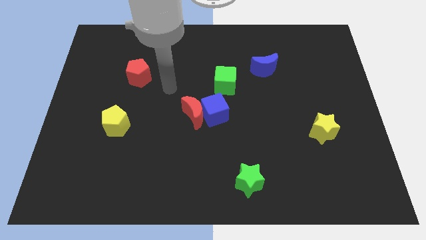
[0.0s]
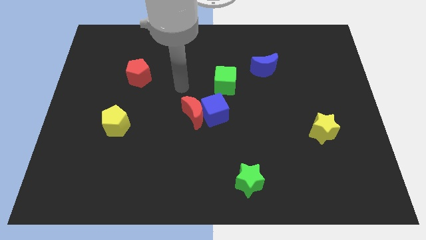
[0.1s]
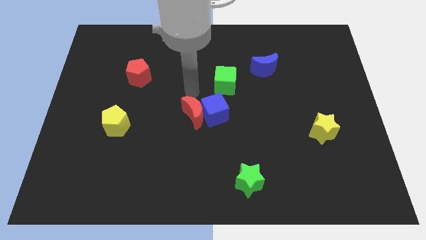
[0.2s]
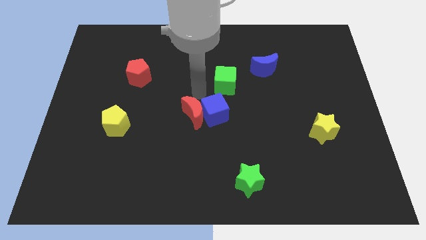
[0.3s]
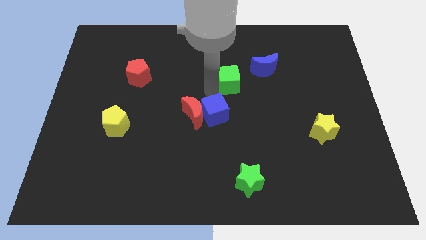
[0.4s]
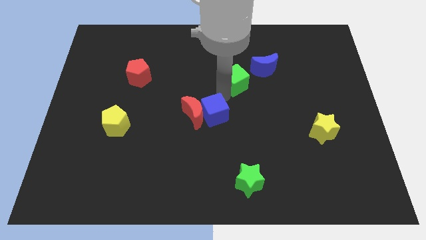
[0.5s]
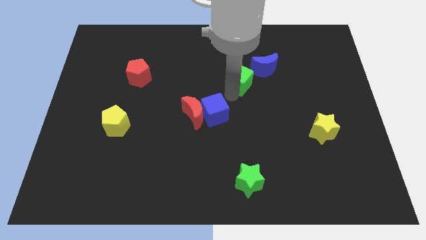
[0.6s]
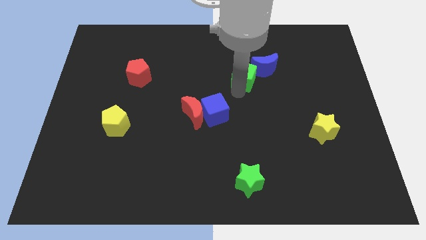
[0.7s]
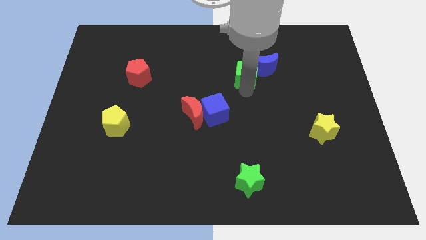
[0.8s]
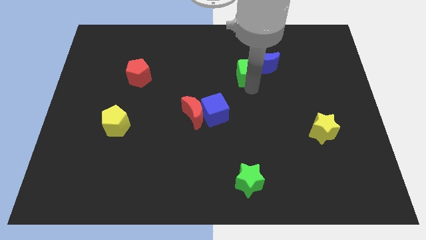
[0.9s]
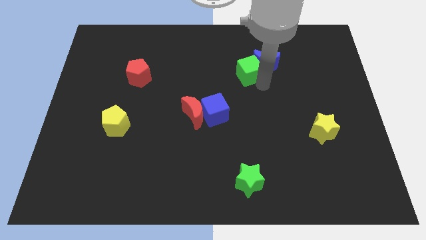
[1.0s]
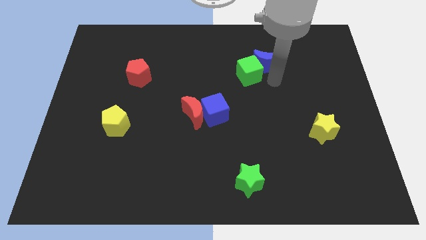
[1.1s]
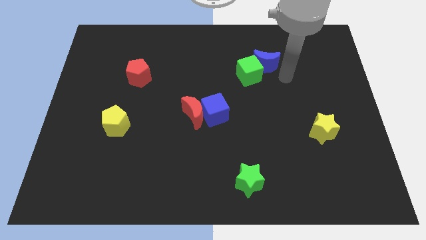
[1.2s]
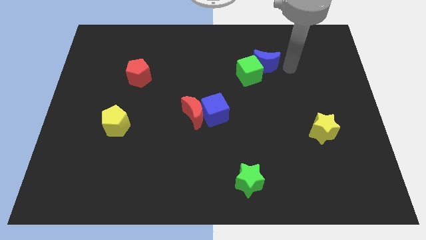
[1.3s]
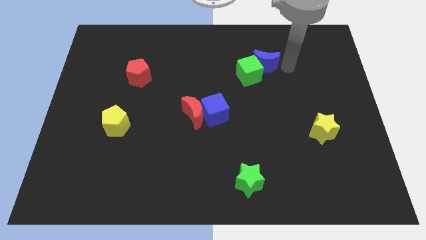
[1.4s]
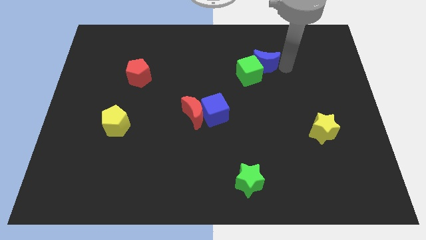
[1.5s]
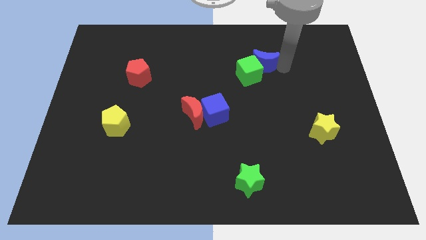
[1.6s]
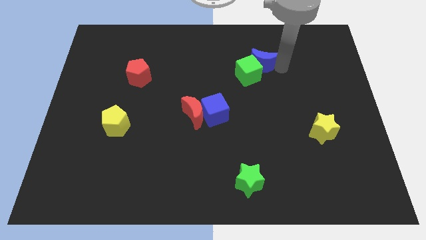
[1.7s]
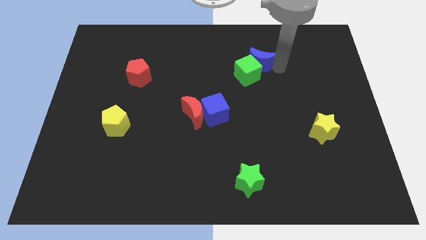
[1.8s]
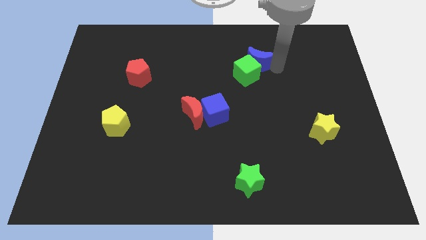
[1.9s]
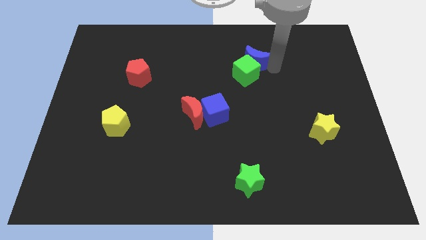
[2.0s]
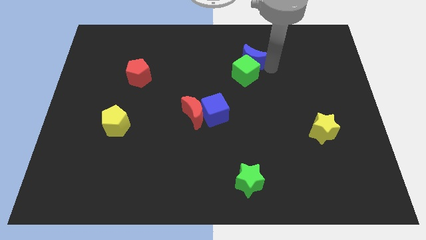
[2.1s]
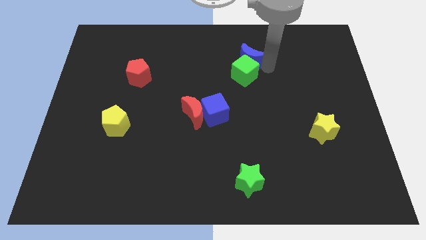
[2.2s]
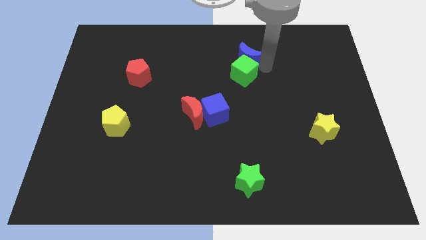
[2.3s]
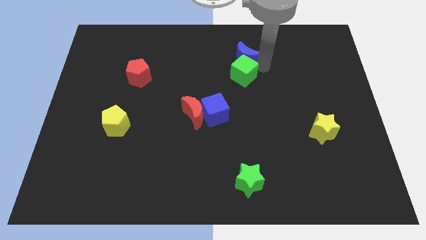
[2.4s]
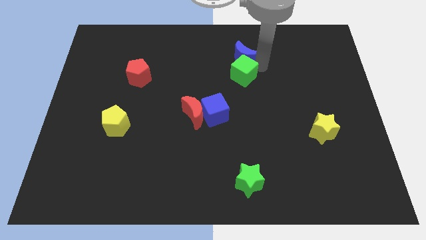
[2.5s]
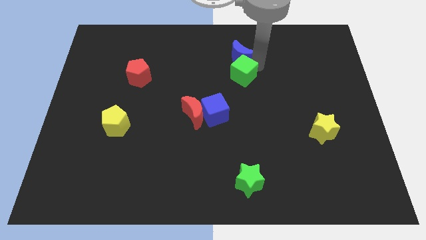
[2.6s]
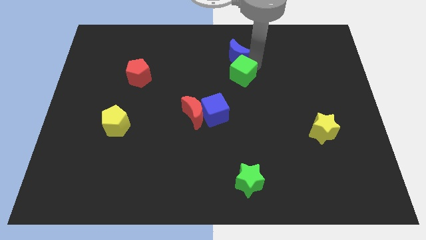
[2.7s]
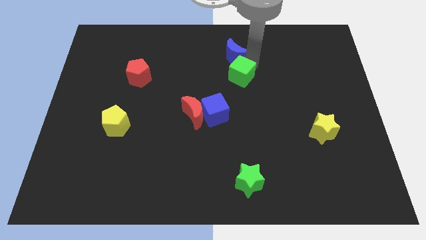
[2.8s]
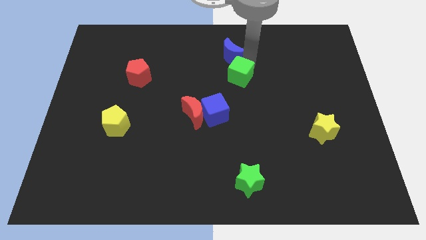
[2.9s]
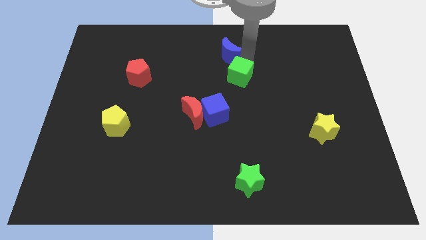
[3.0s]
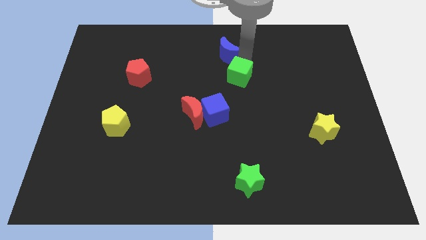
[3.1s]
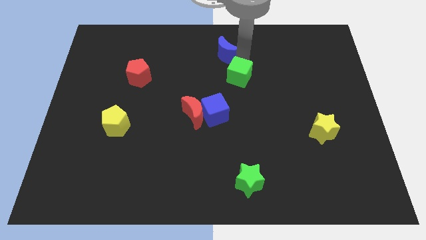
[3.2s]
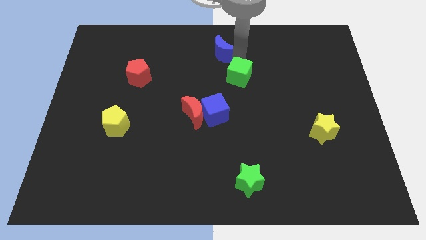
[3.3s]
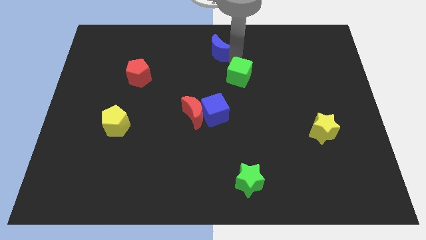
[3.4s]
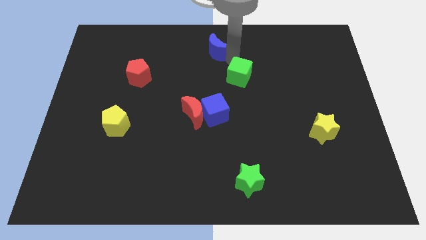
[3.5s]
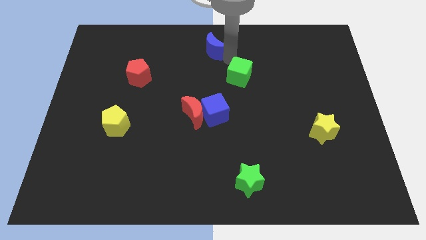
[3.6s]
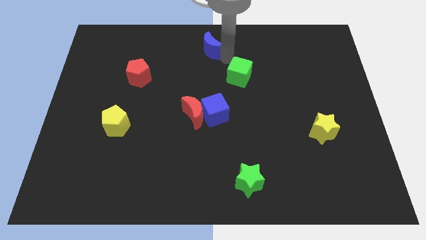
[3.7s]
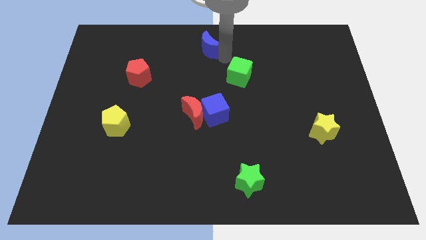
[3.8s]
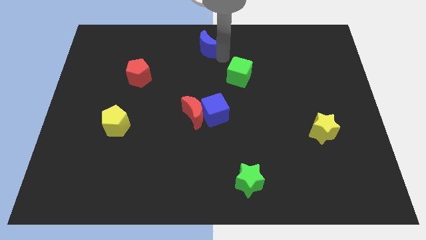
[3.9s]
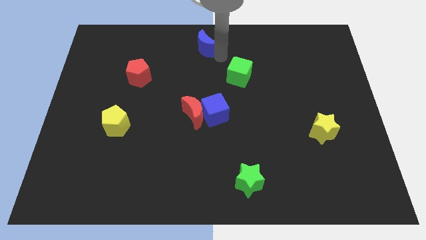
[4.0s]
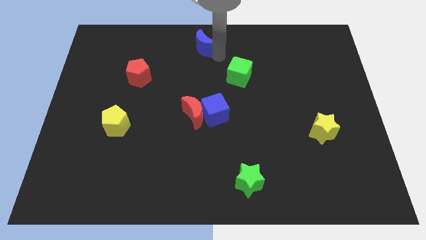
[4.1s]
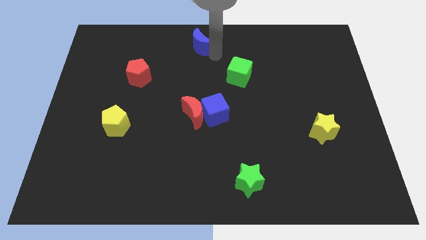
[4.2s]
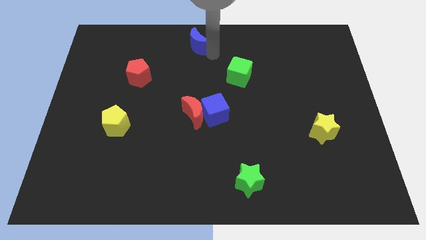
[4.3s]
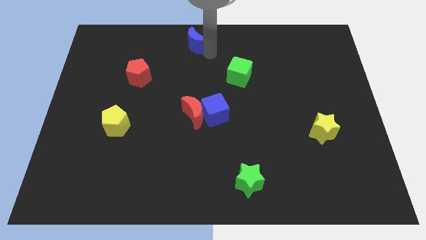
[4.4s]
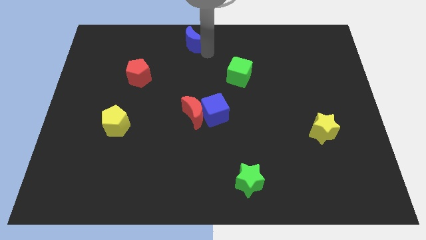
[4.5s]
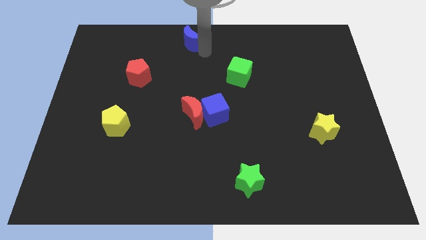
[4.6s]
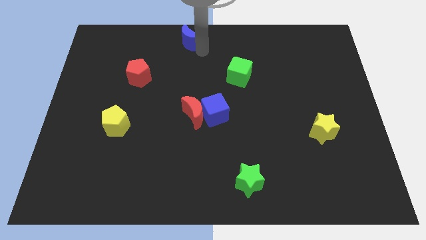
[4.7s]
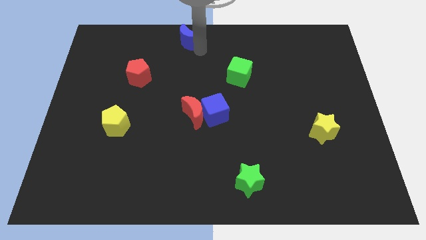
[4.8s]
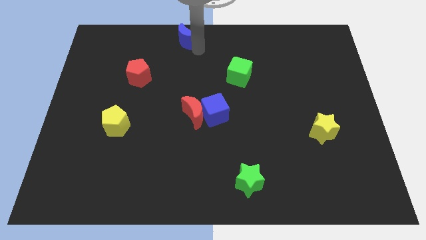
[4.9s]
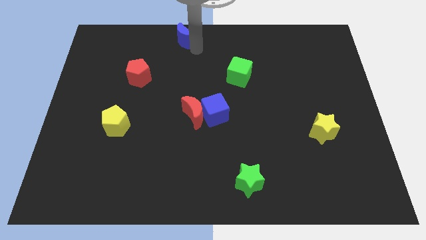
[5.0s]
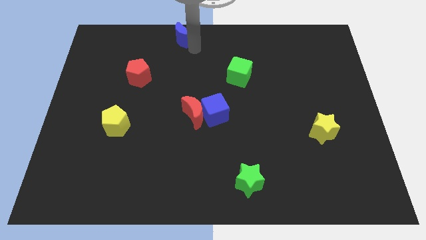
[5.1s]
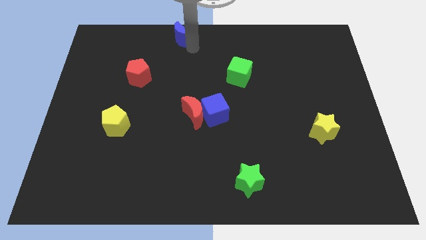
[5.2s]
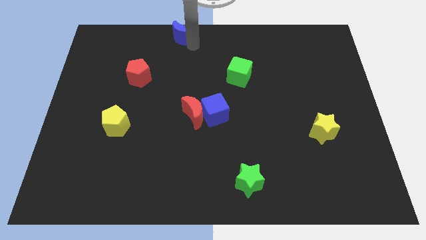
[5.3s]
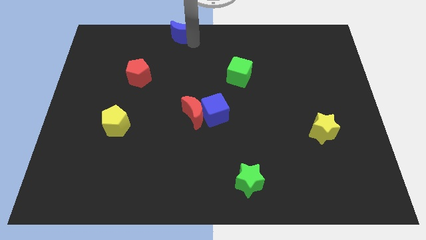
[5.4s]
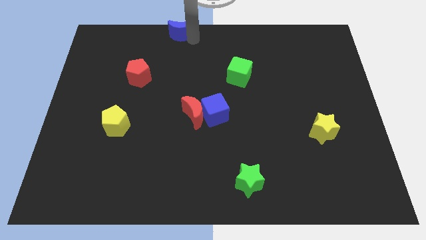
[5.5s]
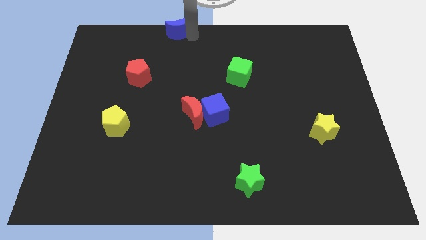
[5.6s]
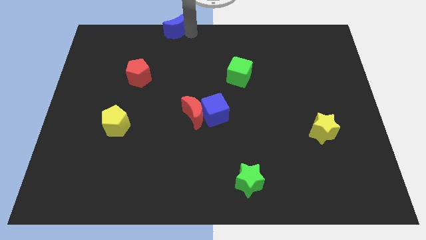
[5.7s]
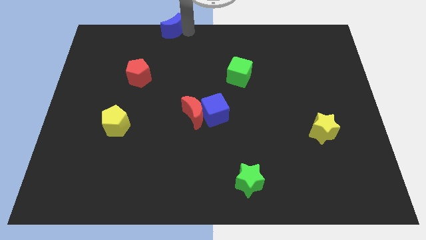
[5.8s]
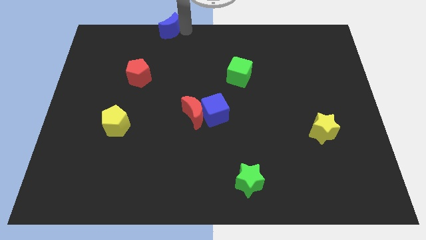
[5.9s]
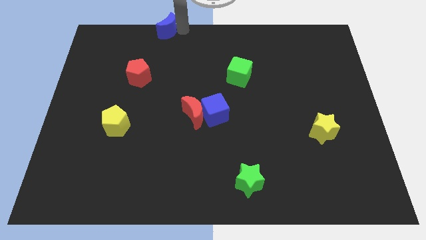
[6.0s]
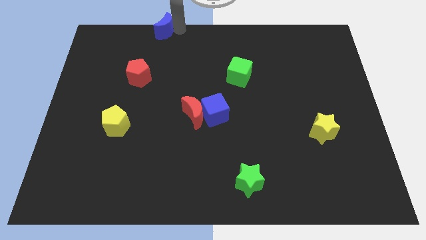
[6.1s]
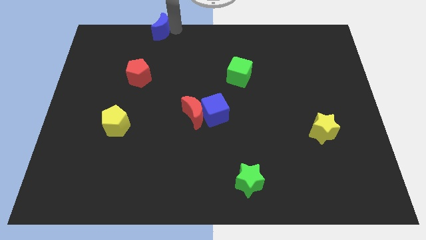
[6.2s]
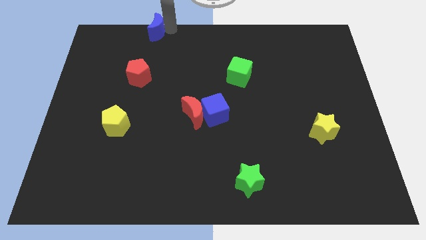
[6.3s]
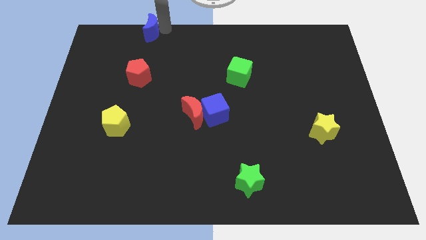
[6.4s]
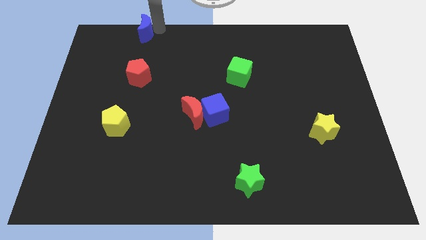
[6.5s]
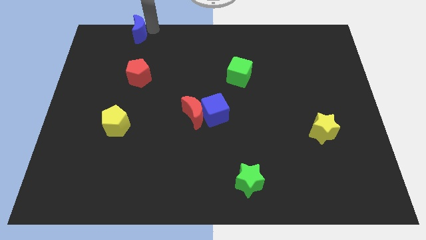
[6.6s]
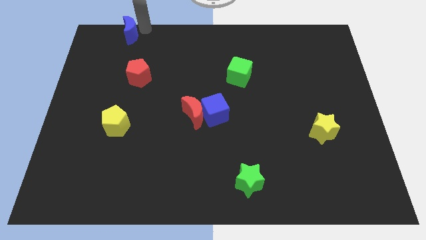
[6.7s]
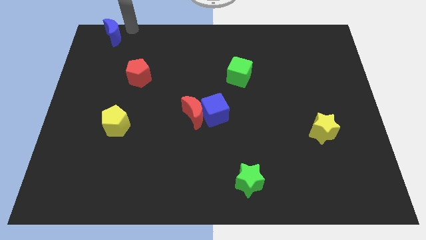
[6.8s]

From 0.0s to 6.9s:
push the blue moon to the top left corner

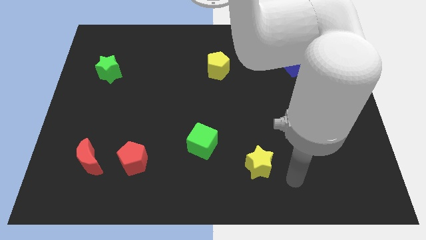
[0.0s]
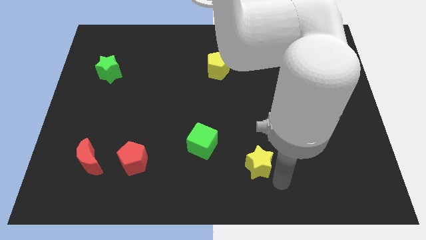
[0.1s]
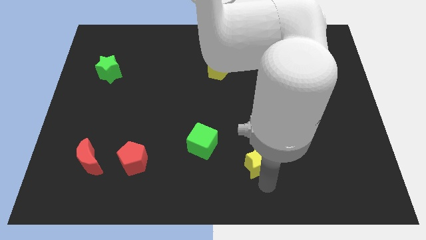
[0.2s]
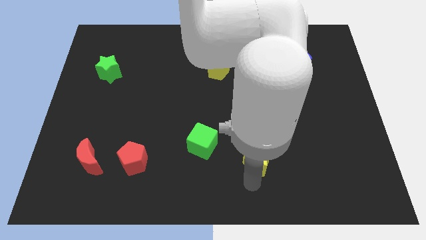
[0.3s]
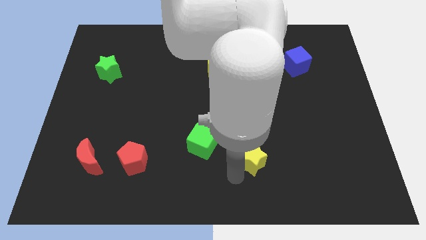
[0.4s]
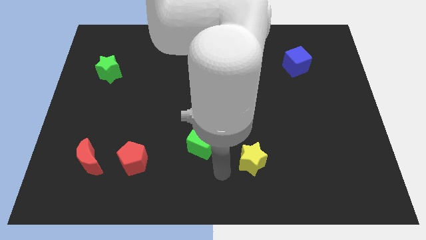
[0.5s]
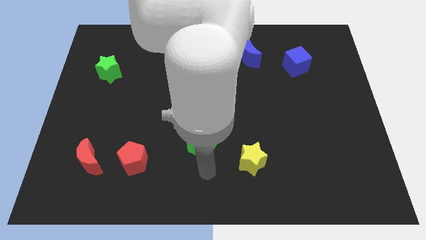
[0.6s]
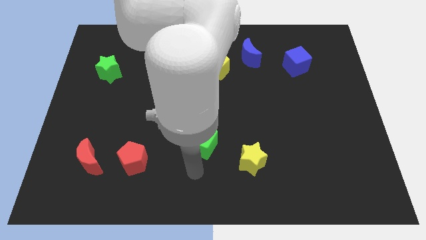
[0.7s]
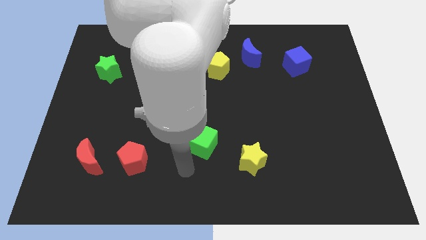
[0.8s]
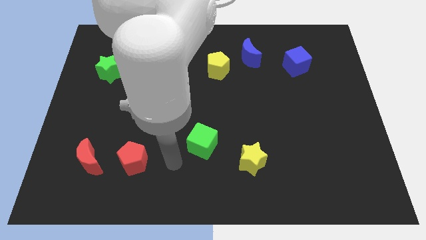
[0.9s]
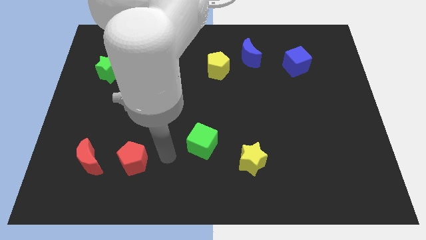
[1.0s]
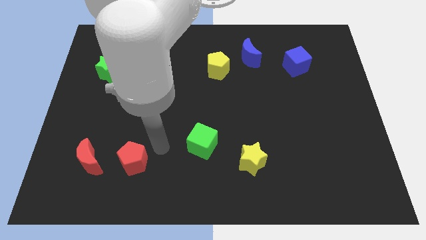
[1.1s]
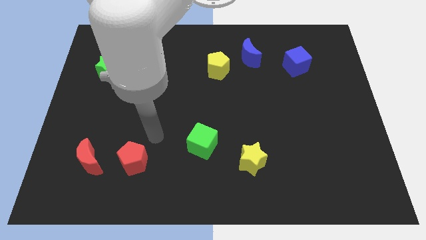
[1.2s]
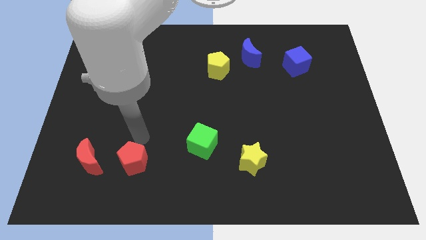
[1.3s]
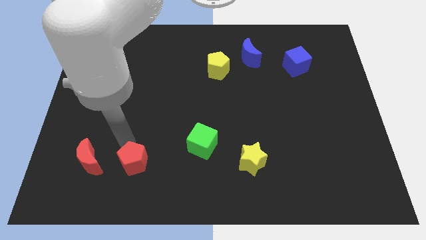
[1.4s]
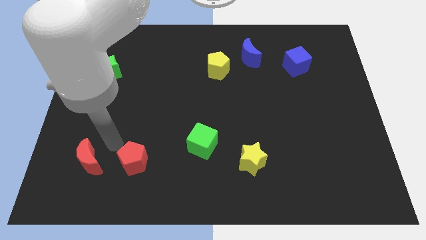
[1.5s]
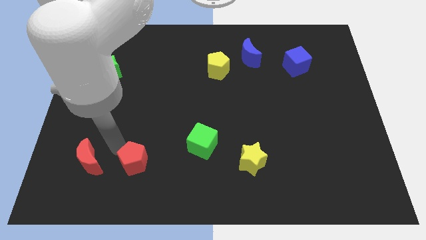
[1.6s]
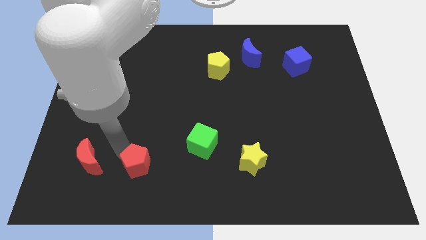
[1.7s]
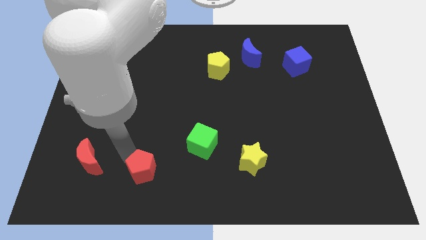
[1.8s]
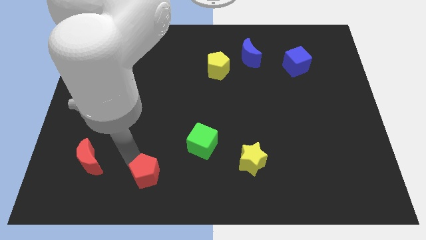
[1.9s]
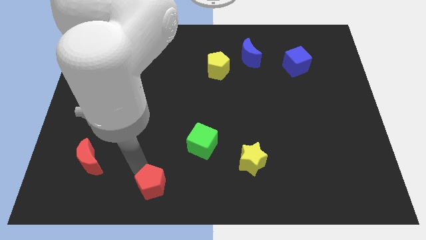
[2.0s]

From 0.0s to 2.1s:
move the red pentagon to the bottom
